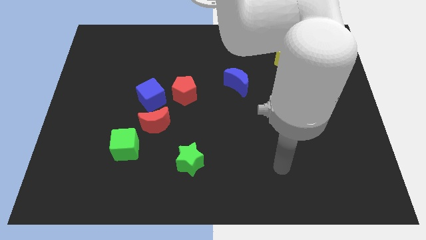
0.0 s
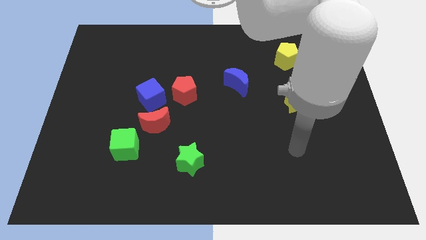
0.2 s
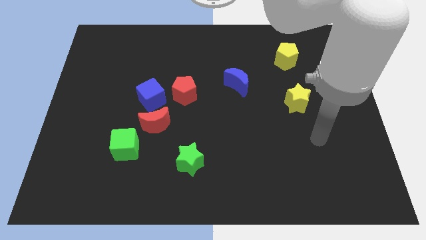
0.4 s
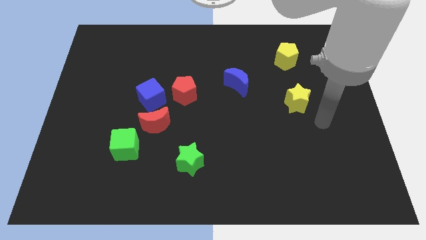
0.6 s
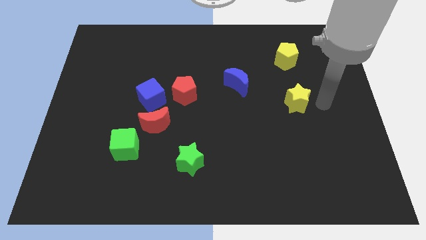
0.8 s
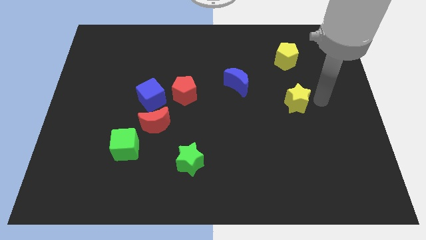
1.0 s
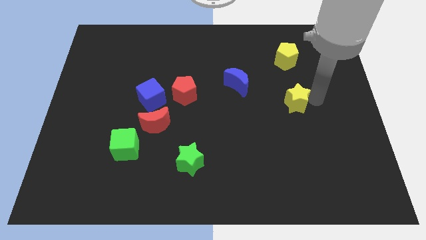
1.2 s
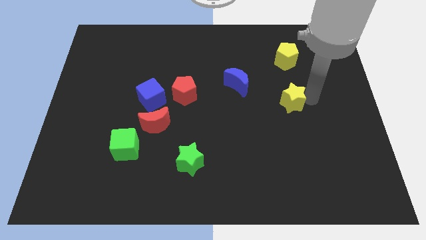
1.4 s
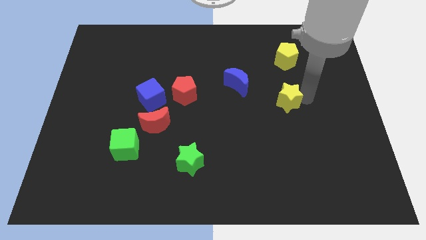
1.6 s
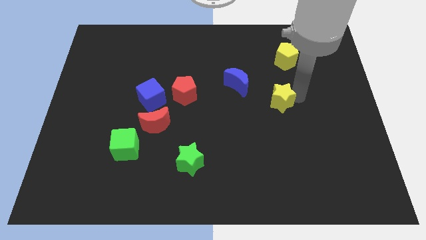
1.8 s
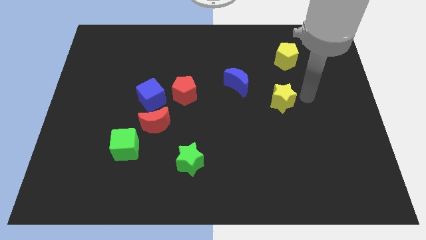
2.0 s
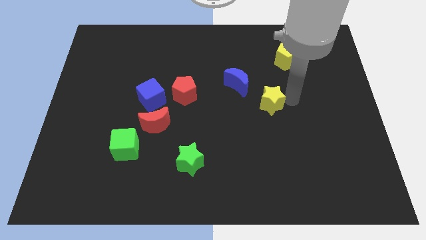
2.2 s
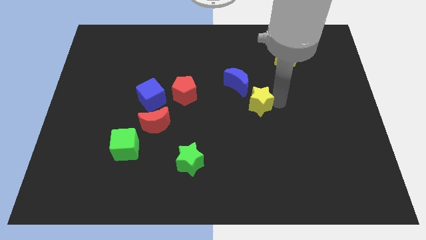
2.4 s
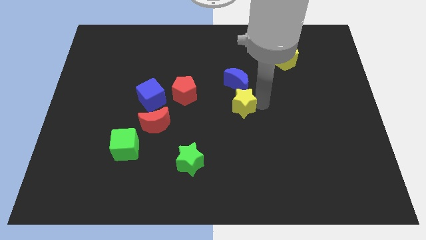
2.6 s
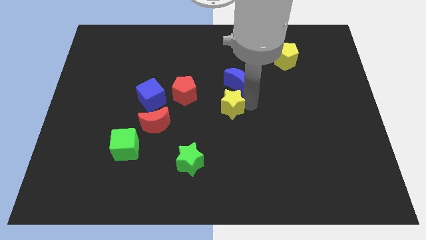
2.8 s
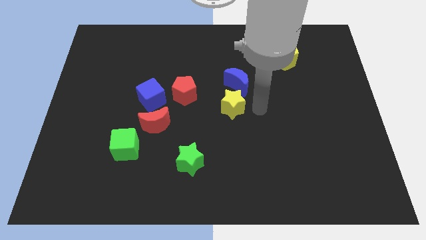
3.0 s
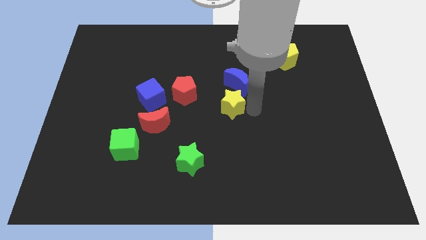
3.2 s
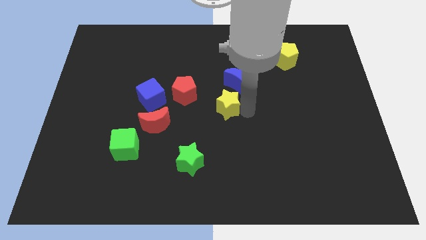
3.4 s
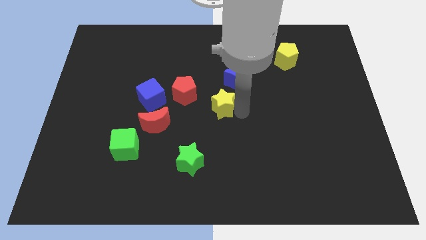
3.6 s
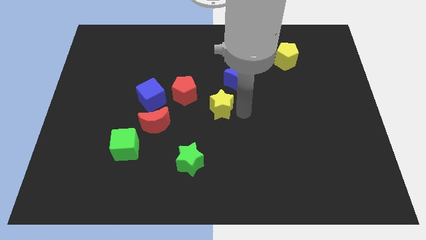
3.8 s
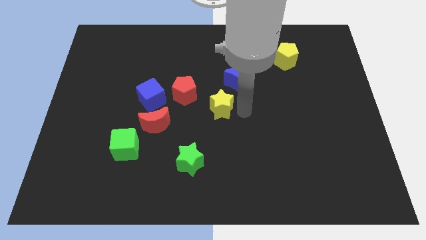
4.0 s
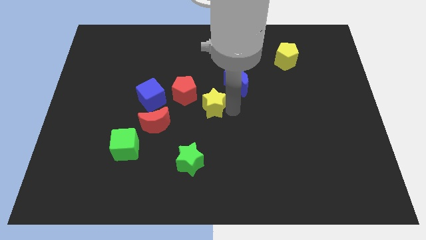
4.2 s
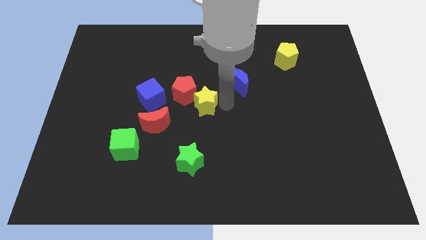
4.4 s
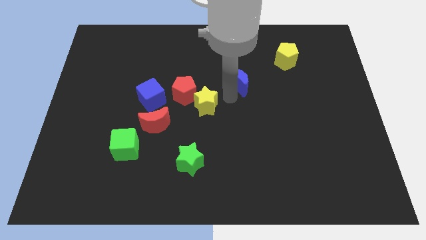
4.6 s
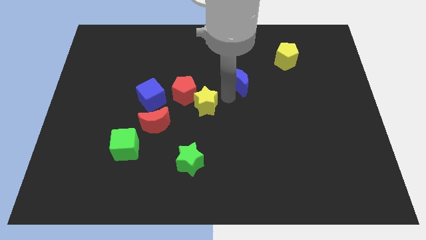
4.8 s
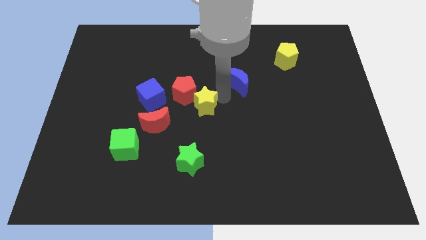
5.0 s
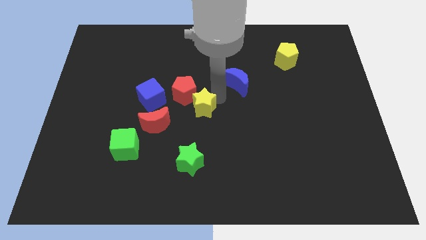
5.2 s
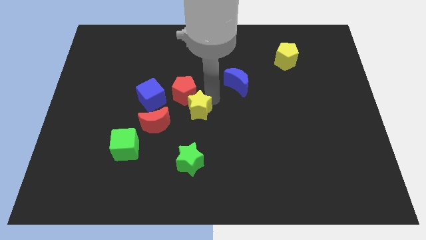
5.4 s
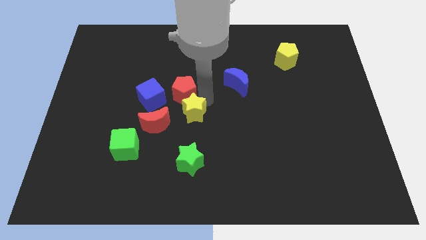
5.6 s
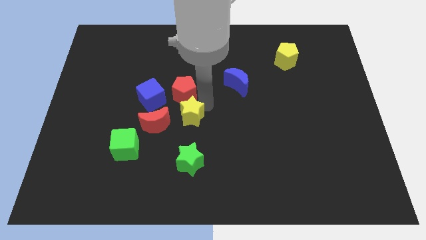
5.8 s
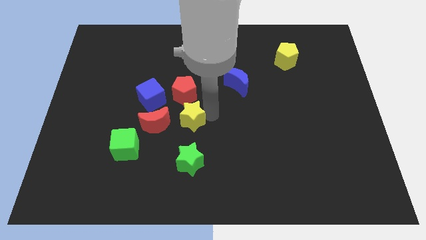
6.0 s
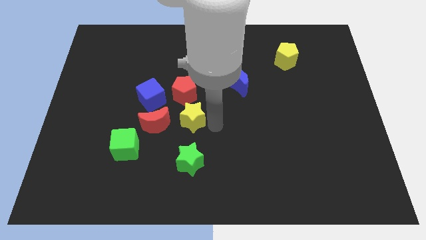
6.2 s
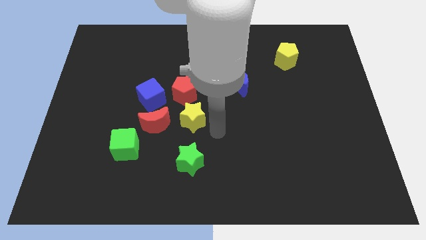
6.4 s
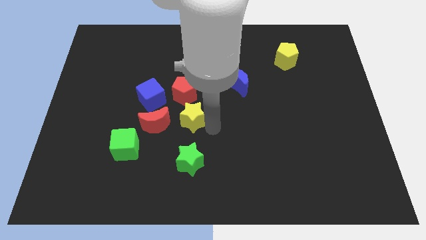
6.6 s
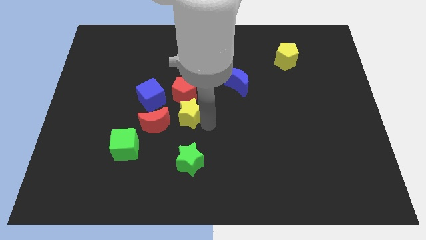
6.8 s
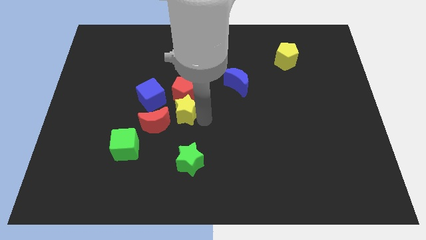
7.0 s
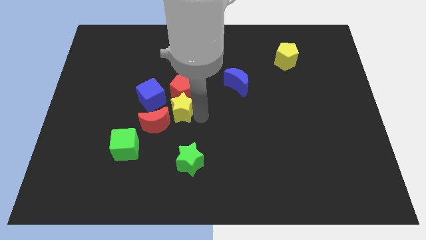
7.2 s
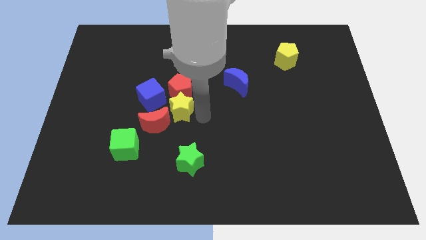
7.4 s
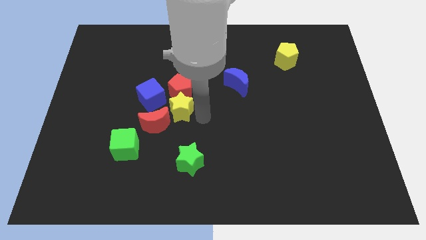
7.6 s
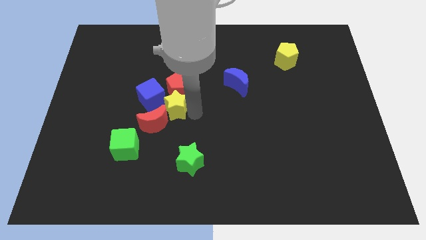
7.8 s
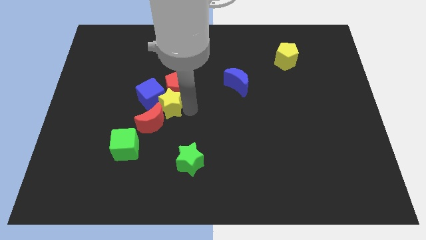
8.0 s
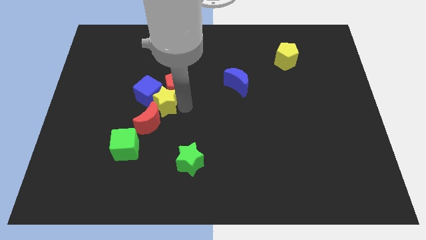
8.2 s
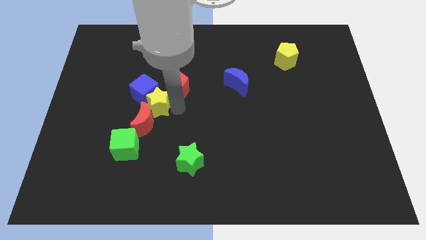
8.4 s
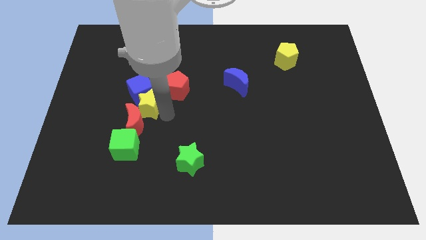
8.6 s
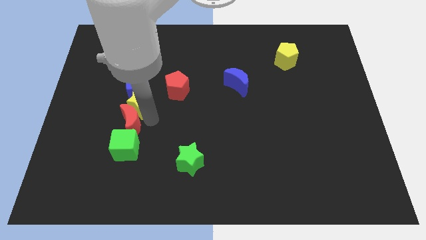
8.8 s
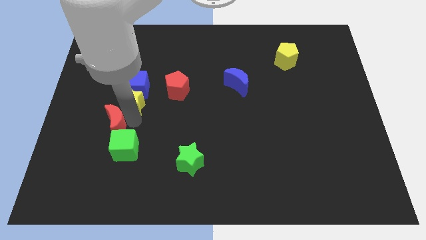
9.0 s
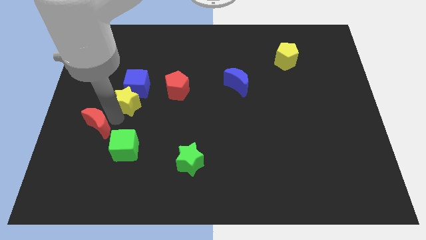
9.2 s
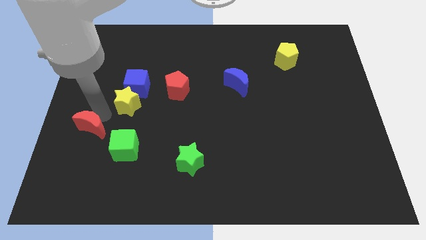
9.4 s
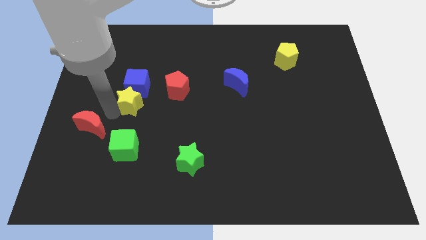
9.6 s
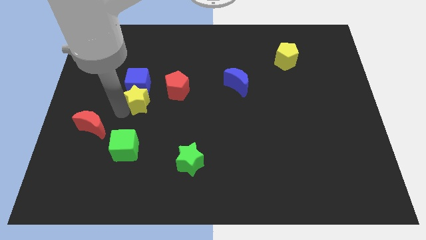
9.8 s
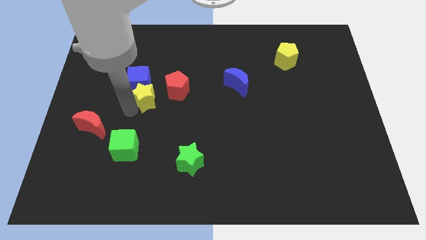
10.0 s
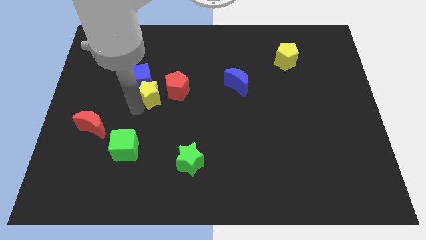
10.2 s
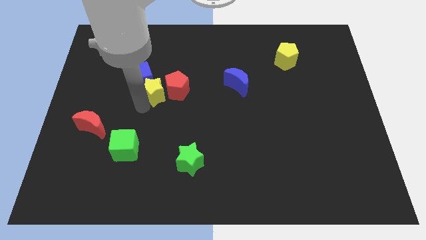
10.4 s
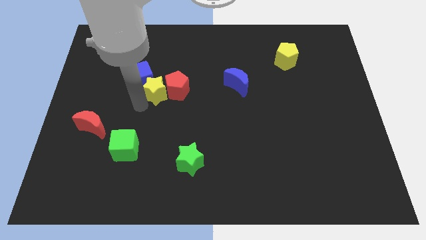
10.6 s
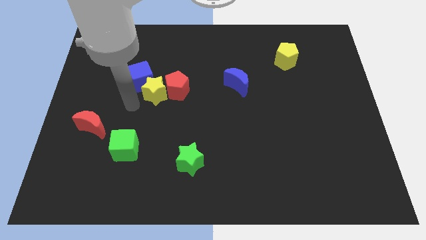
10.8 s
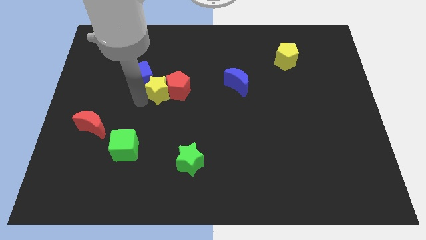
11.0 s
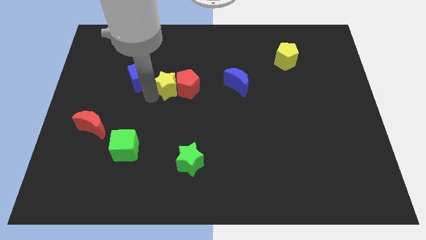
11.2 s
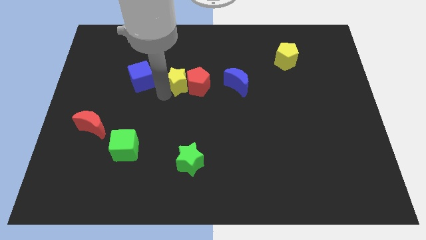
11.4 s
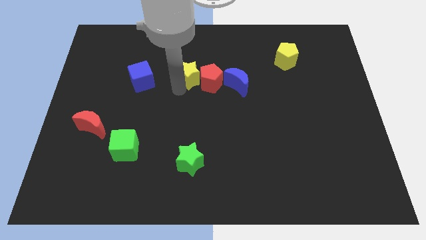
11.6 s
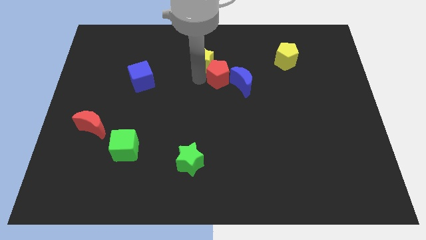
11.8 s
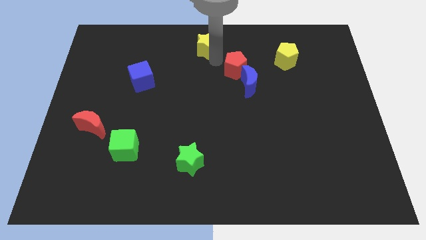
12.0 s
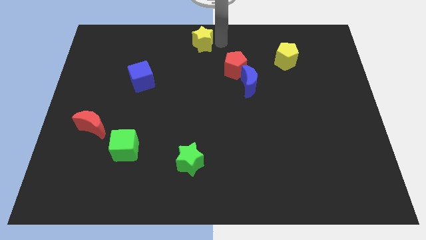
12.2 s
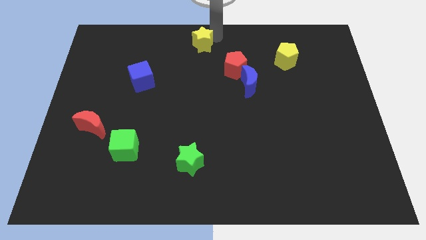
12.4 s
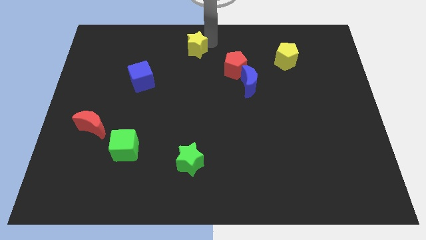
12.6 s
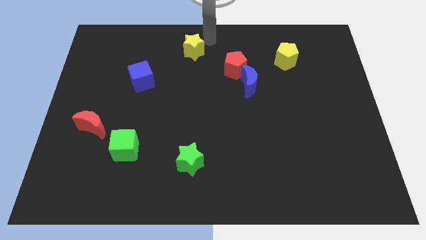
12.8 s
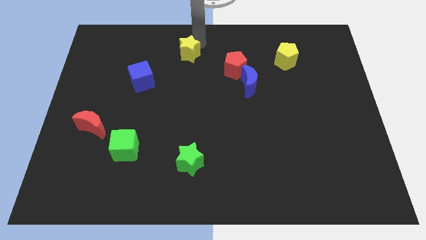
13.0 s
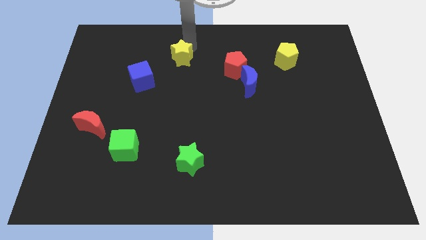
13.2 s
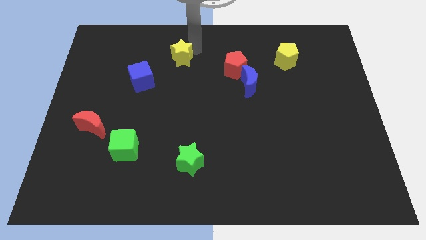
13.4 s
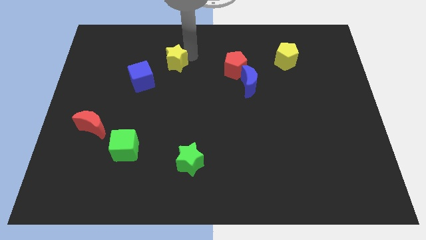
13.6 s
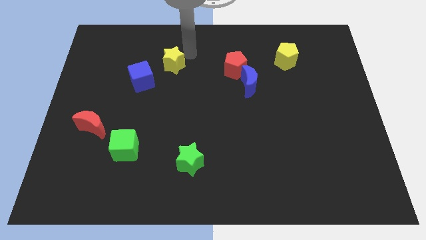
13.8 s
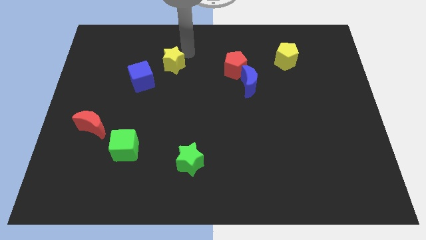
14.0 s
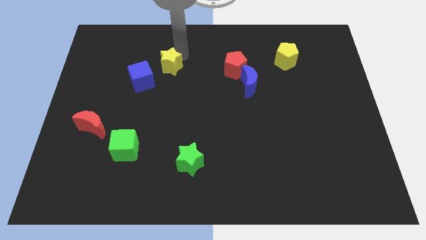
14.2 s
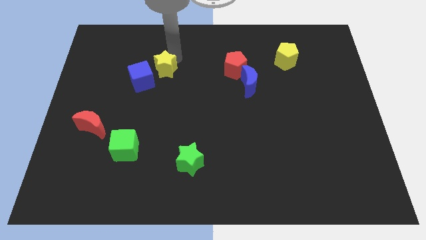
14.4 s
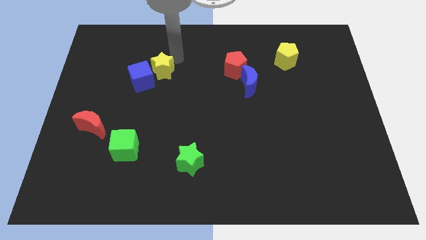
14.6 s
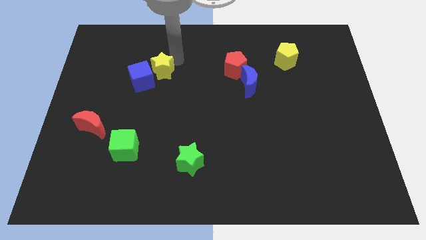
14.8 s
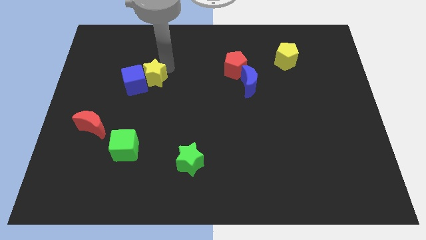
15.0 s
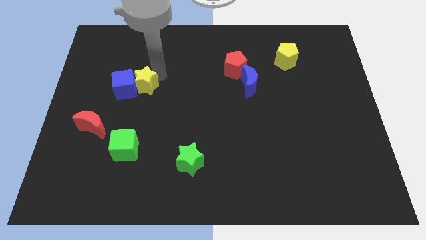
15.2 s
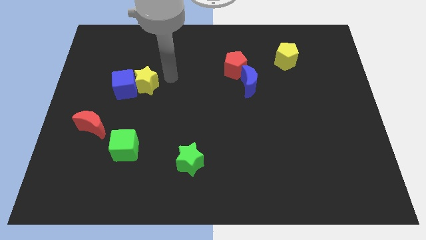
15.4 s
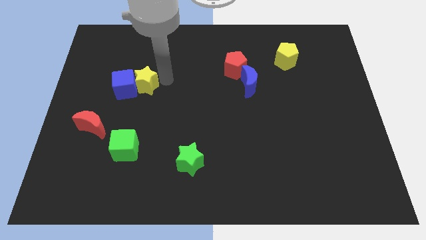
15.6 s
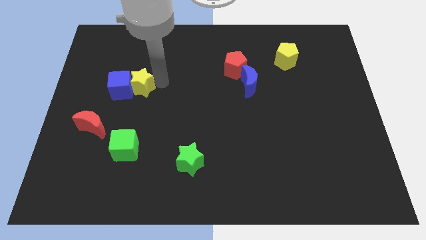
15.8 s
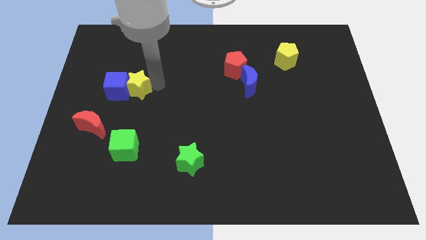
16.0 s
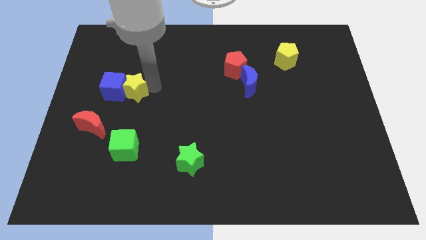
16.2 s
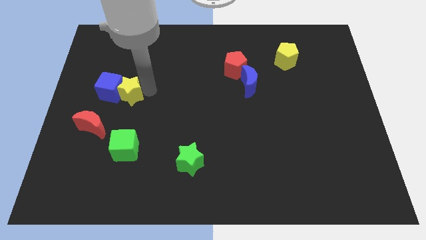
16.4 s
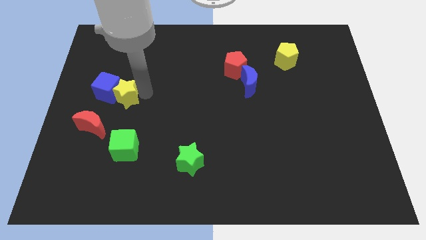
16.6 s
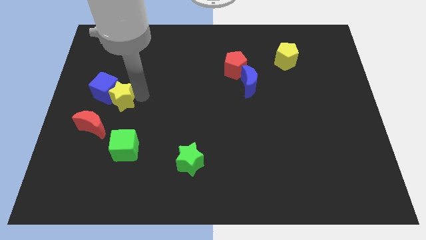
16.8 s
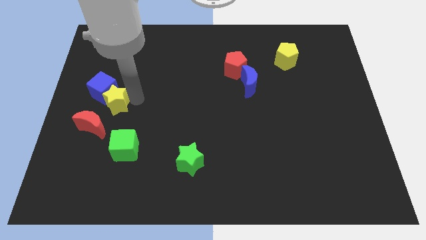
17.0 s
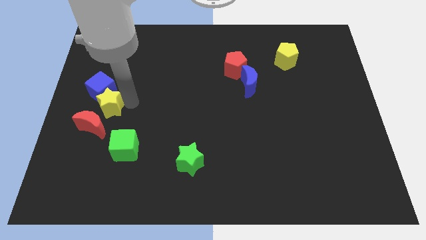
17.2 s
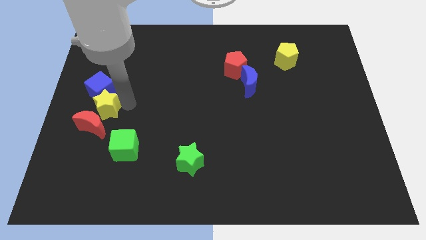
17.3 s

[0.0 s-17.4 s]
move the yellow star to the left side of the board
